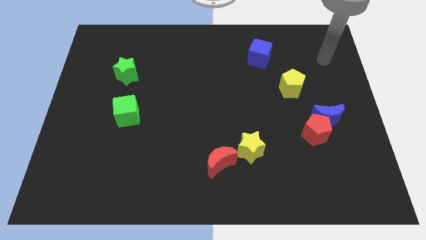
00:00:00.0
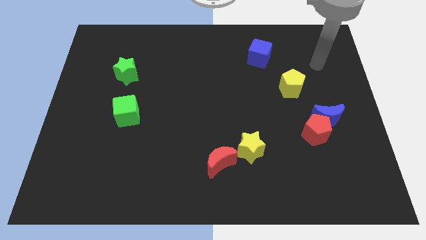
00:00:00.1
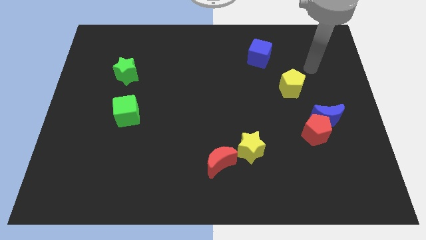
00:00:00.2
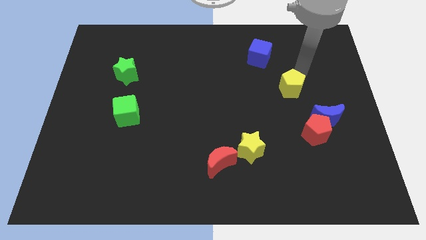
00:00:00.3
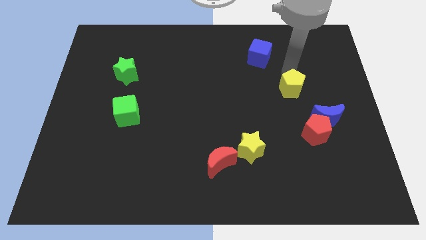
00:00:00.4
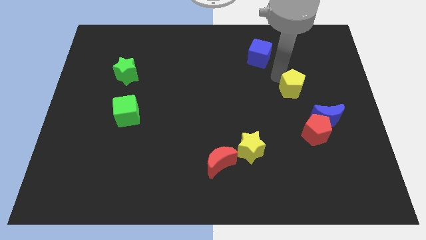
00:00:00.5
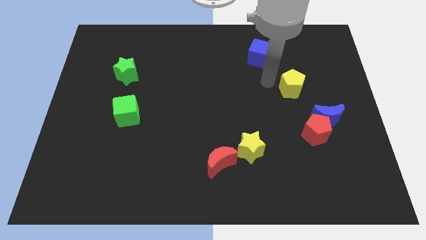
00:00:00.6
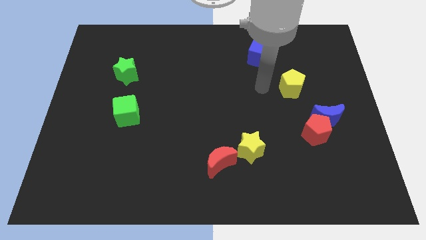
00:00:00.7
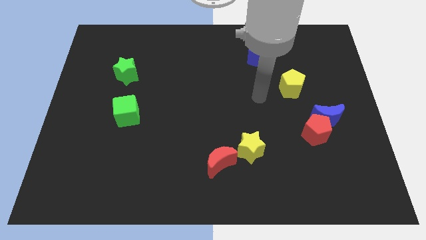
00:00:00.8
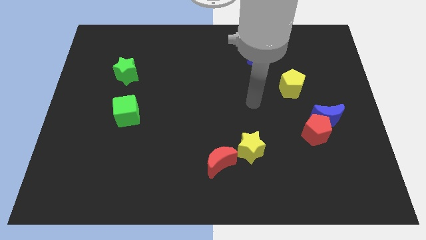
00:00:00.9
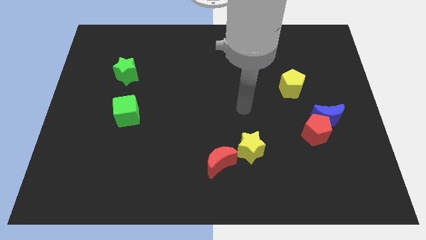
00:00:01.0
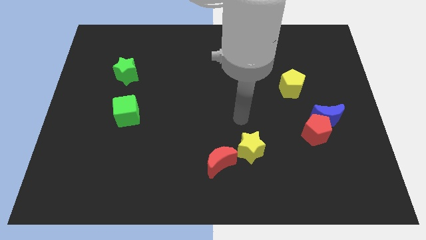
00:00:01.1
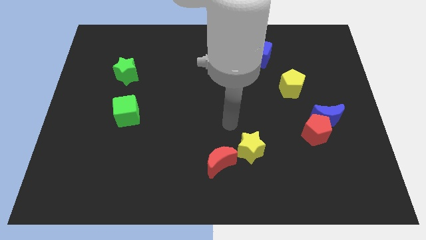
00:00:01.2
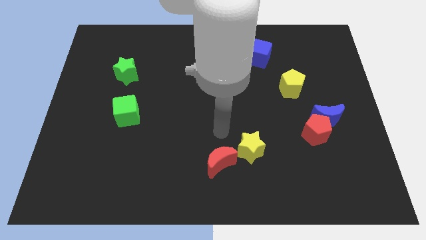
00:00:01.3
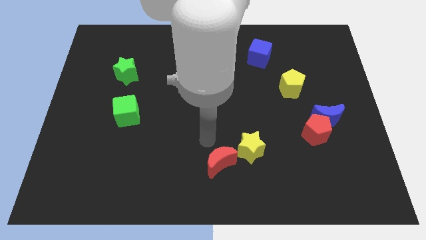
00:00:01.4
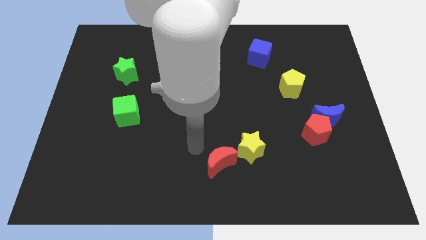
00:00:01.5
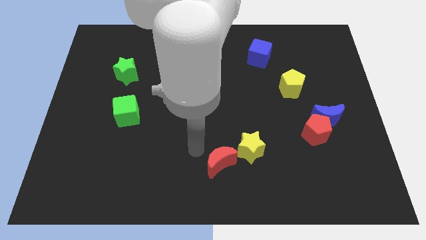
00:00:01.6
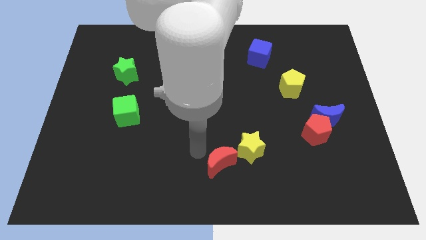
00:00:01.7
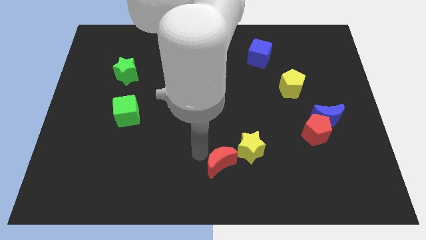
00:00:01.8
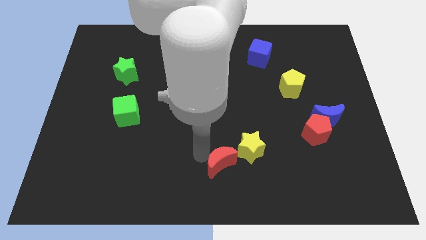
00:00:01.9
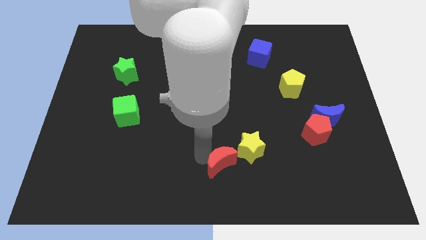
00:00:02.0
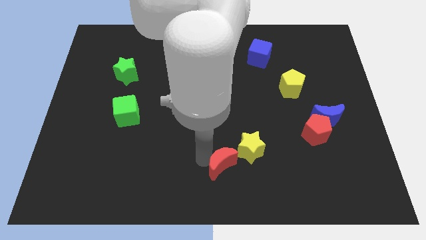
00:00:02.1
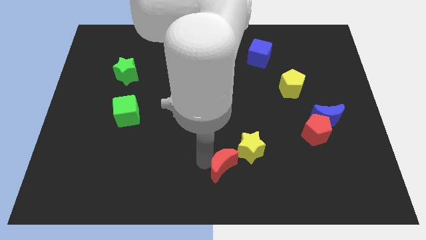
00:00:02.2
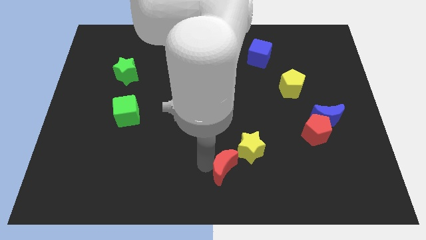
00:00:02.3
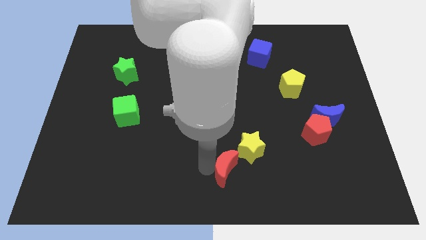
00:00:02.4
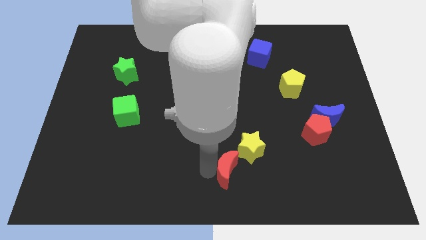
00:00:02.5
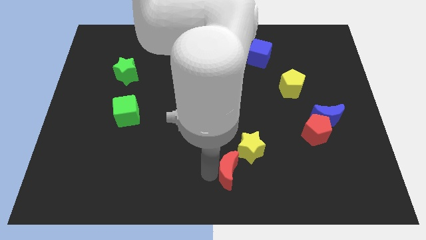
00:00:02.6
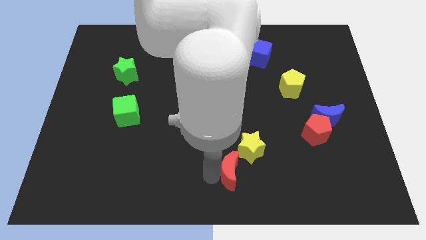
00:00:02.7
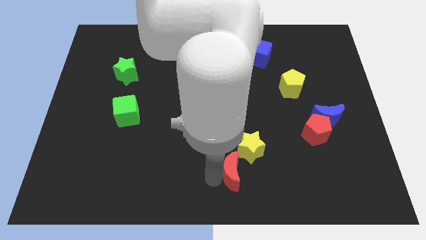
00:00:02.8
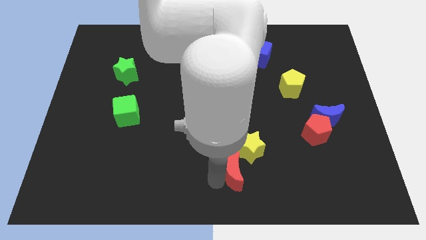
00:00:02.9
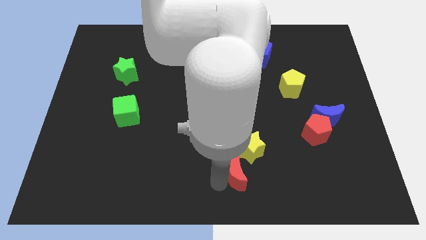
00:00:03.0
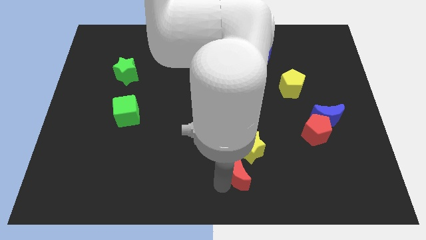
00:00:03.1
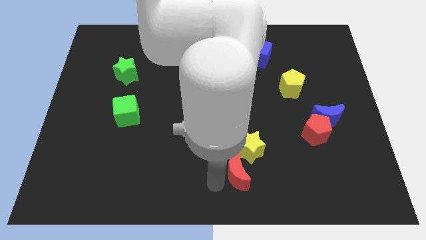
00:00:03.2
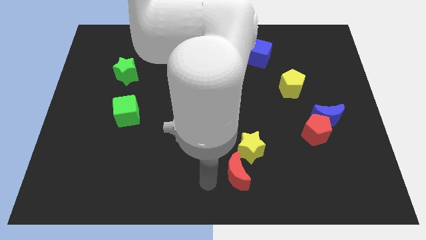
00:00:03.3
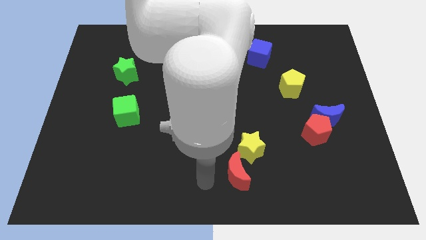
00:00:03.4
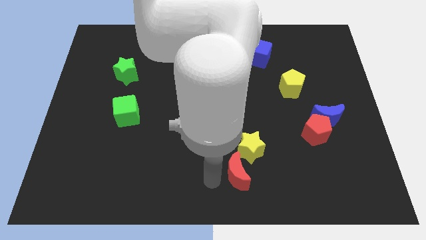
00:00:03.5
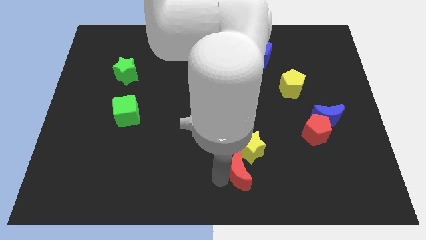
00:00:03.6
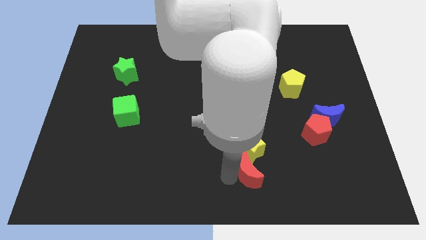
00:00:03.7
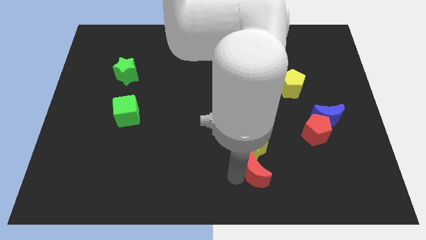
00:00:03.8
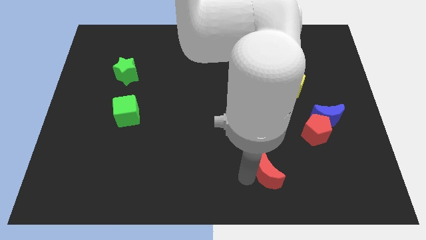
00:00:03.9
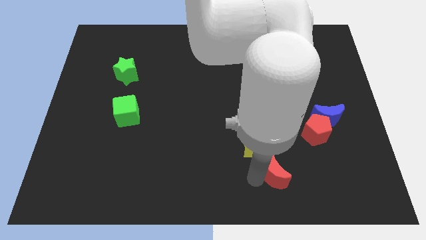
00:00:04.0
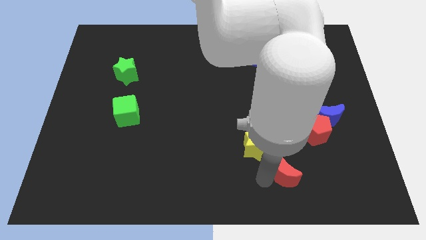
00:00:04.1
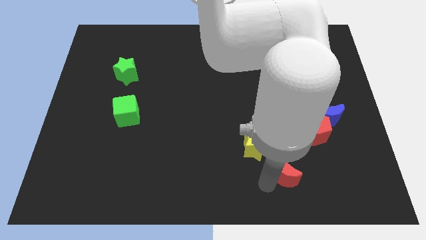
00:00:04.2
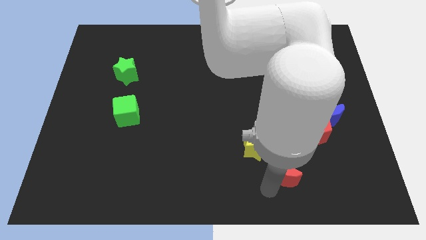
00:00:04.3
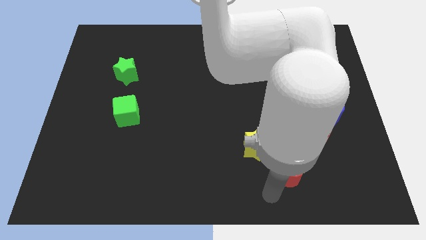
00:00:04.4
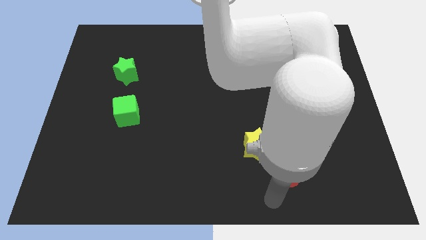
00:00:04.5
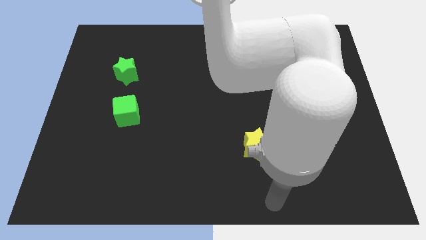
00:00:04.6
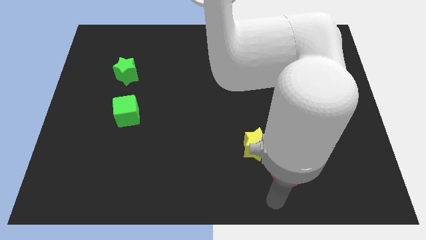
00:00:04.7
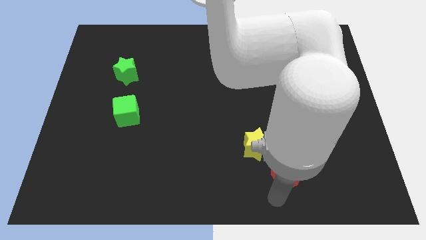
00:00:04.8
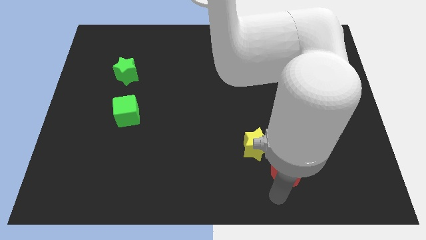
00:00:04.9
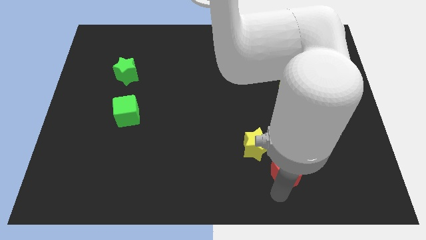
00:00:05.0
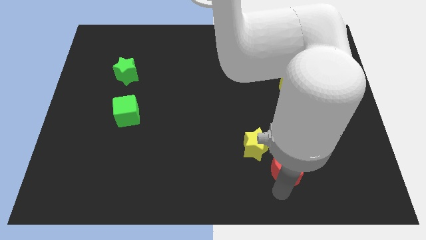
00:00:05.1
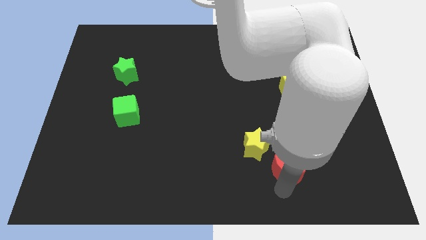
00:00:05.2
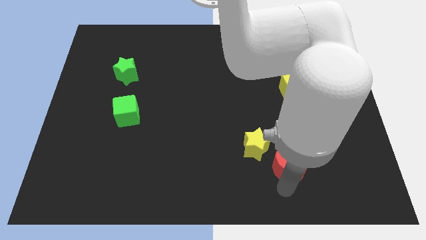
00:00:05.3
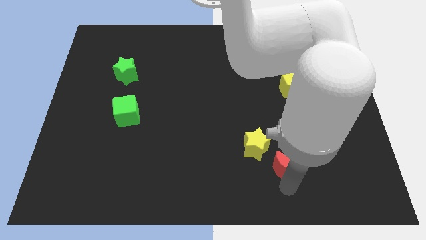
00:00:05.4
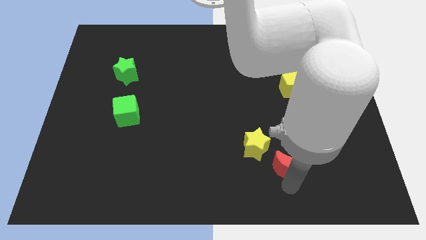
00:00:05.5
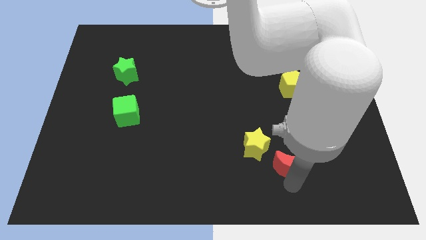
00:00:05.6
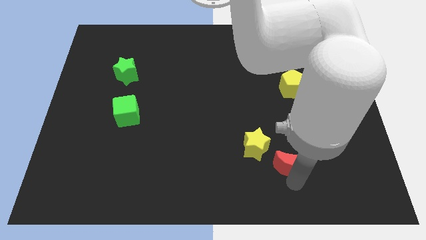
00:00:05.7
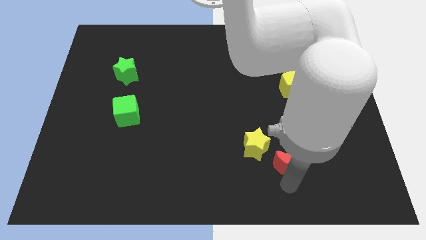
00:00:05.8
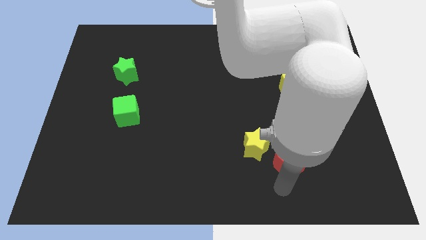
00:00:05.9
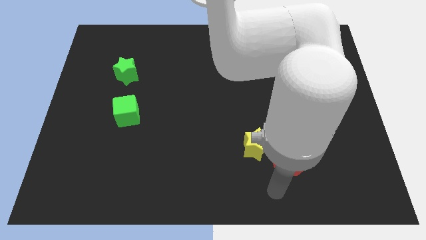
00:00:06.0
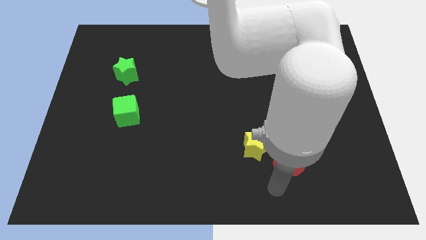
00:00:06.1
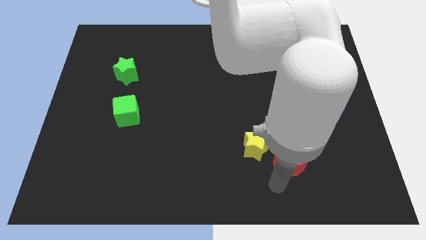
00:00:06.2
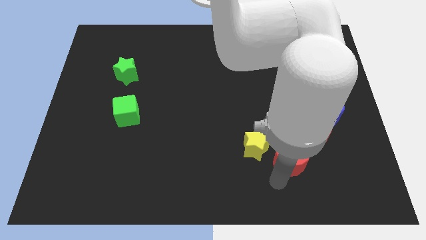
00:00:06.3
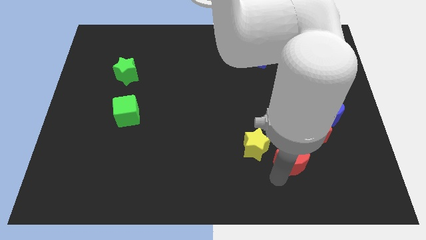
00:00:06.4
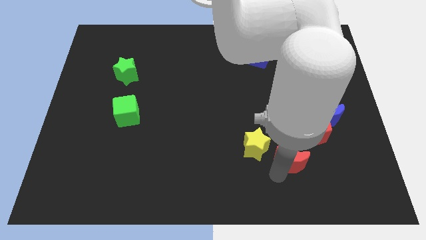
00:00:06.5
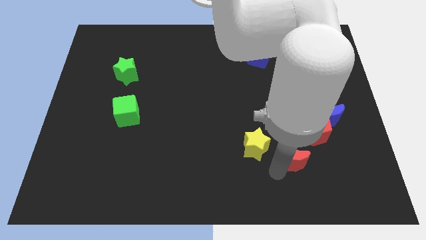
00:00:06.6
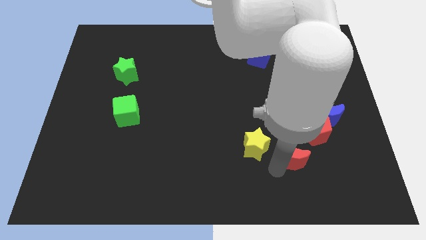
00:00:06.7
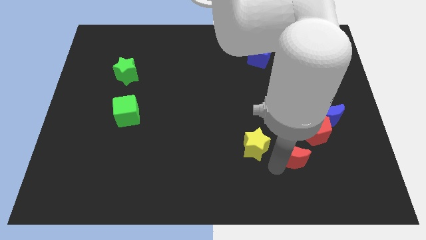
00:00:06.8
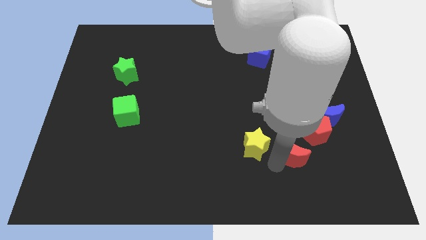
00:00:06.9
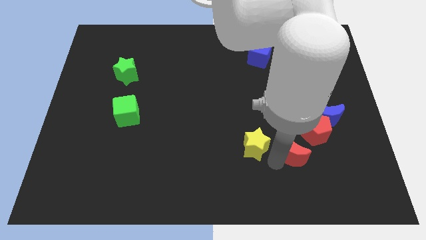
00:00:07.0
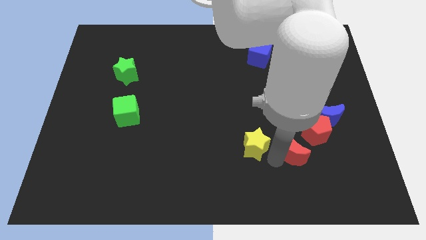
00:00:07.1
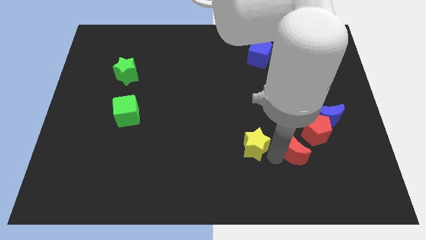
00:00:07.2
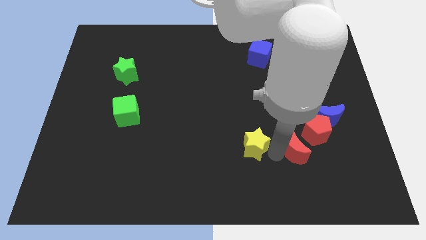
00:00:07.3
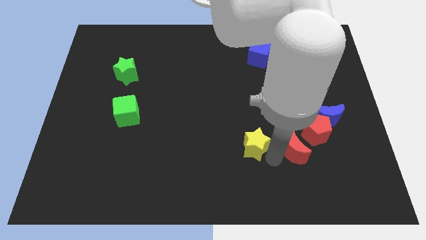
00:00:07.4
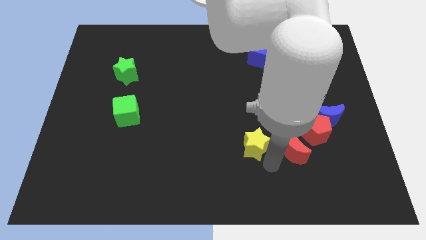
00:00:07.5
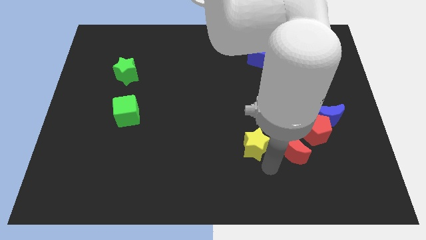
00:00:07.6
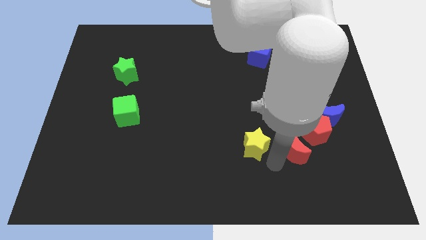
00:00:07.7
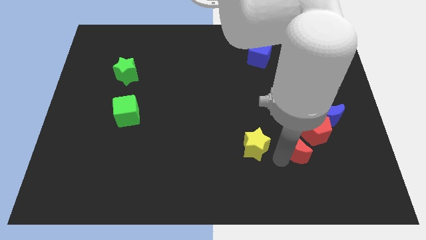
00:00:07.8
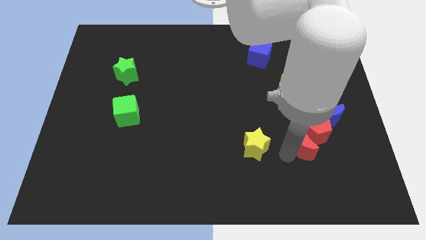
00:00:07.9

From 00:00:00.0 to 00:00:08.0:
slide the red moon to the red pentagon
